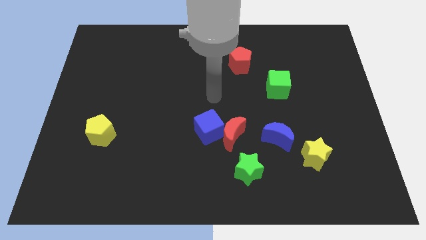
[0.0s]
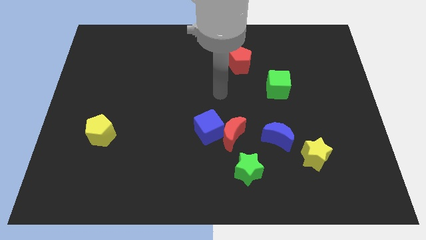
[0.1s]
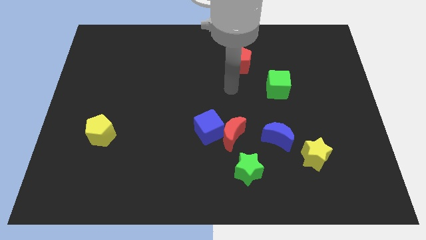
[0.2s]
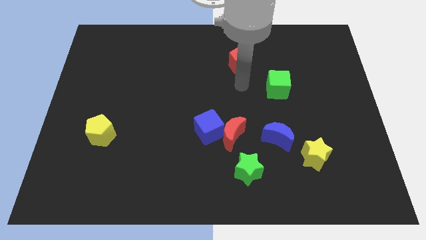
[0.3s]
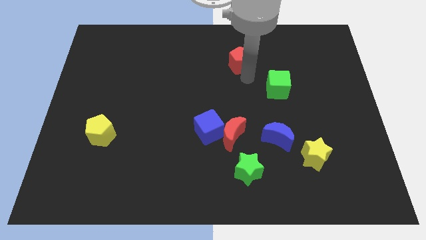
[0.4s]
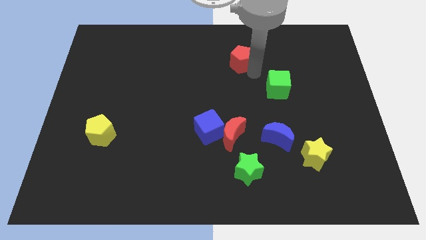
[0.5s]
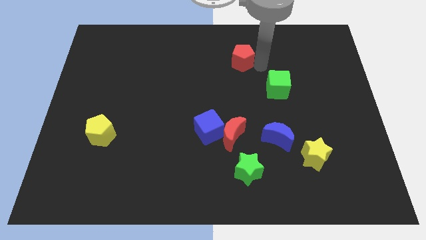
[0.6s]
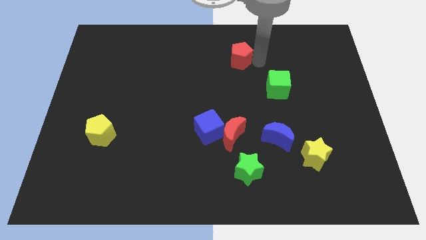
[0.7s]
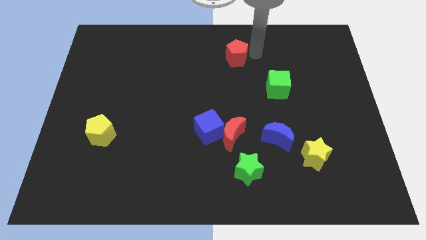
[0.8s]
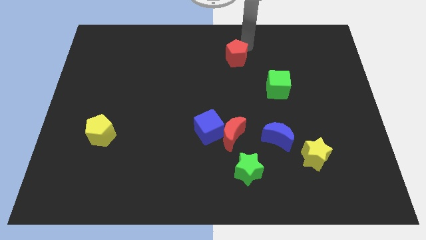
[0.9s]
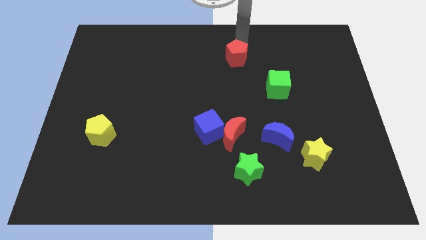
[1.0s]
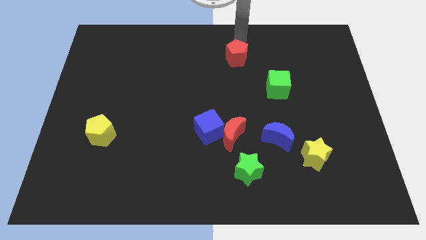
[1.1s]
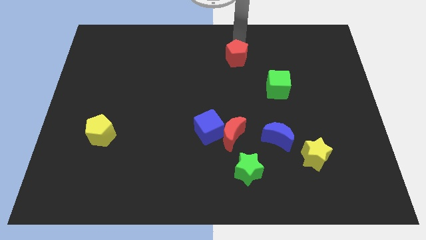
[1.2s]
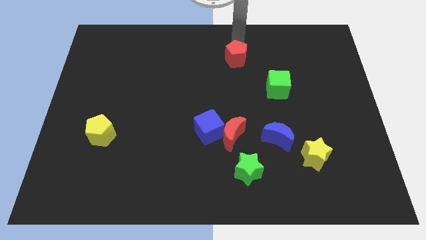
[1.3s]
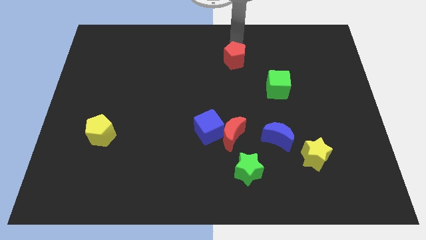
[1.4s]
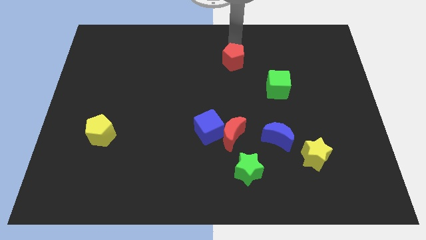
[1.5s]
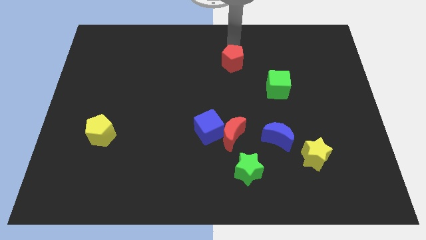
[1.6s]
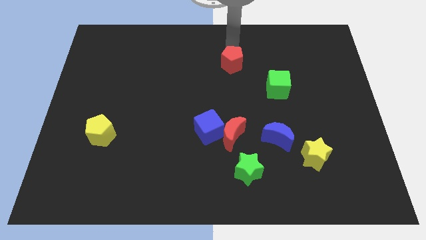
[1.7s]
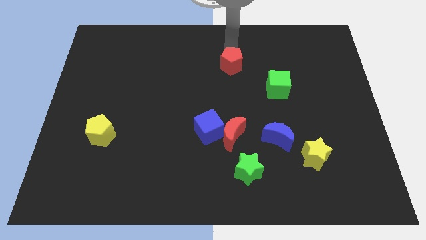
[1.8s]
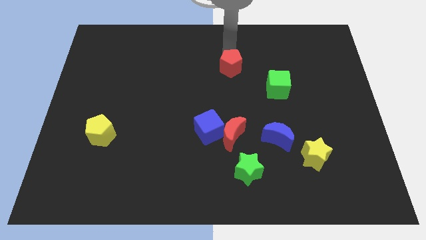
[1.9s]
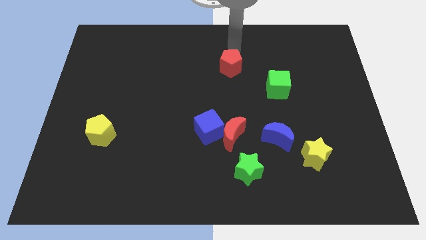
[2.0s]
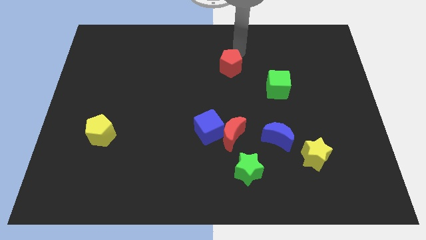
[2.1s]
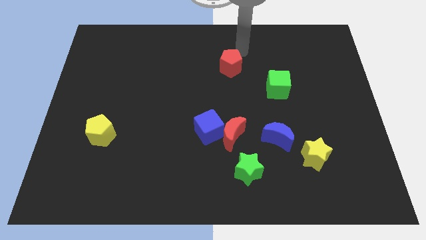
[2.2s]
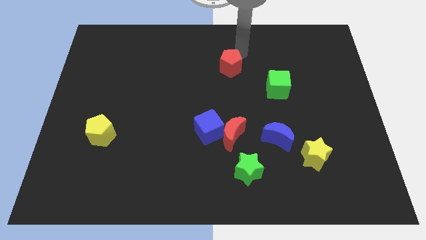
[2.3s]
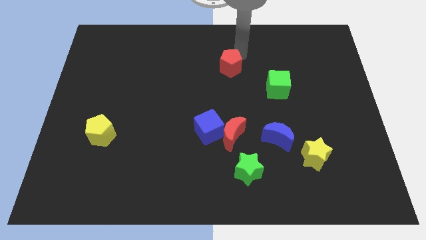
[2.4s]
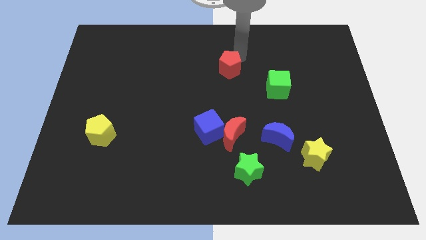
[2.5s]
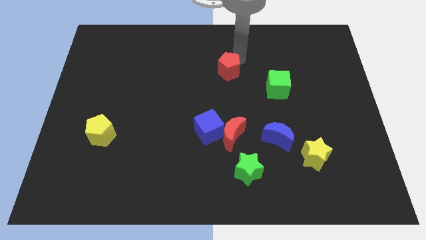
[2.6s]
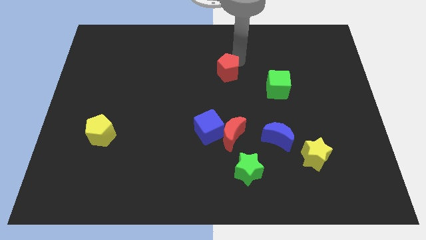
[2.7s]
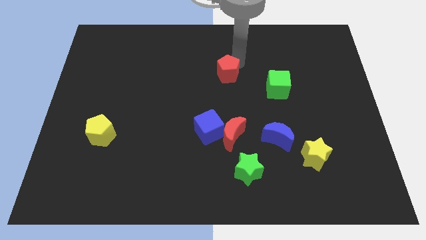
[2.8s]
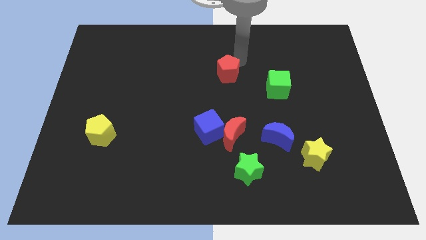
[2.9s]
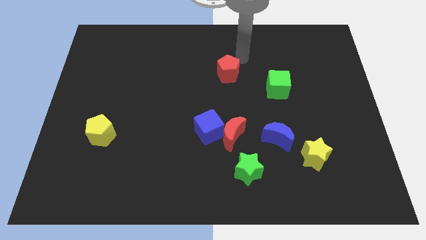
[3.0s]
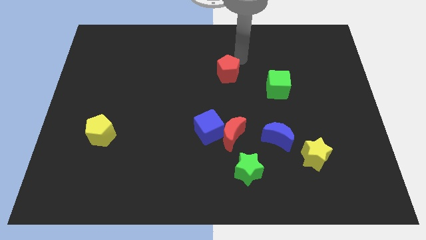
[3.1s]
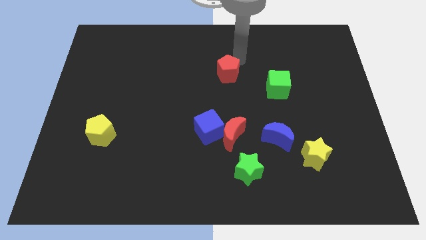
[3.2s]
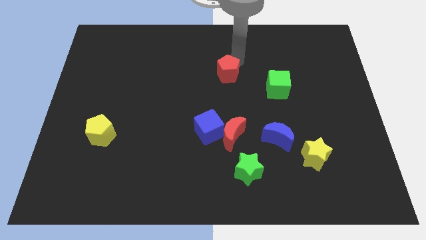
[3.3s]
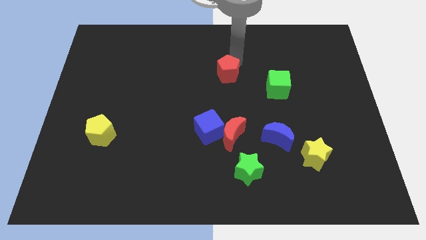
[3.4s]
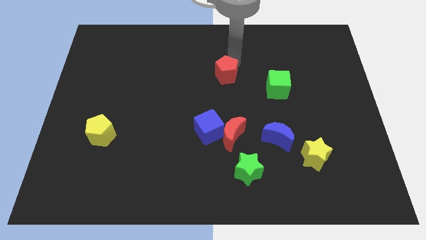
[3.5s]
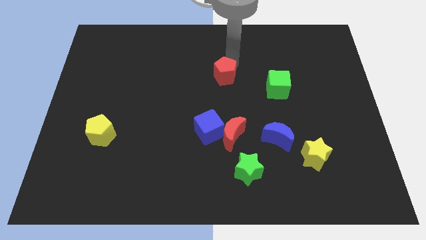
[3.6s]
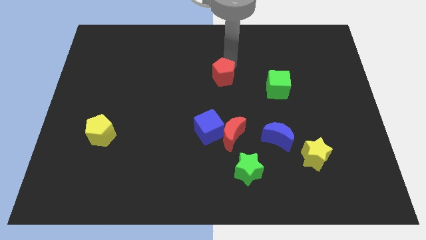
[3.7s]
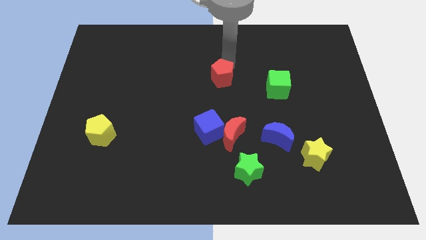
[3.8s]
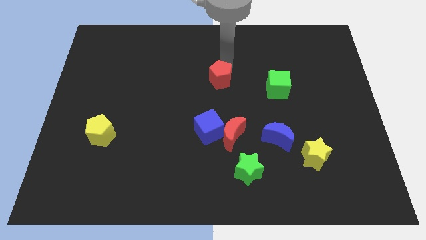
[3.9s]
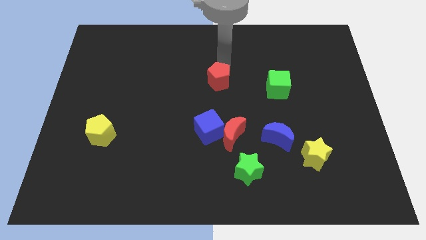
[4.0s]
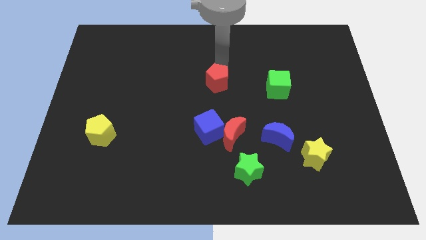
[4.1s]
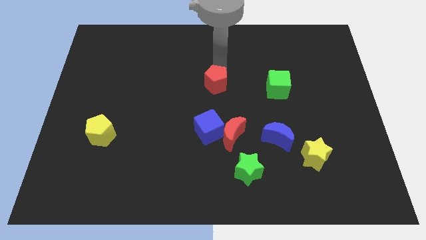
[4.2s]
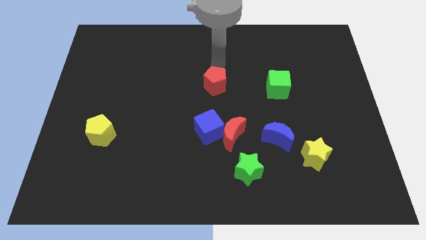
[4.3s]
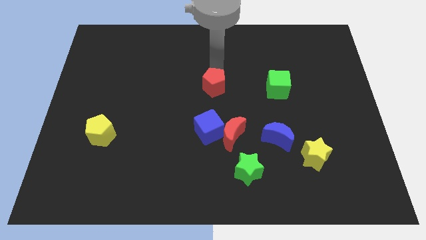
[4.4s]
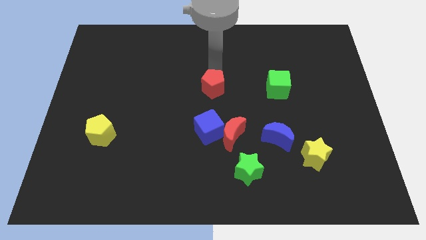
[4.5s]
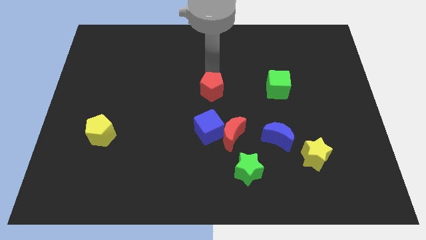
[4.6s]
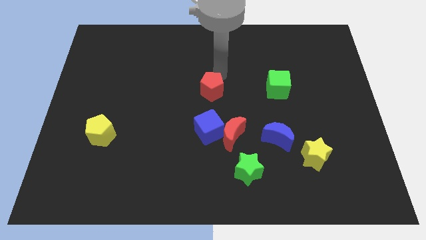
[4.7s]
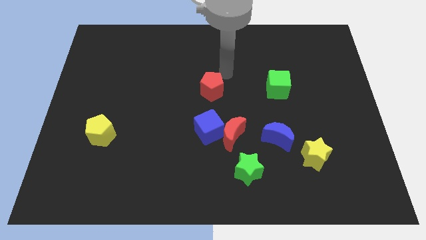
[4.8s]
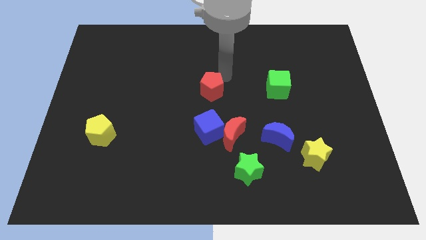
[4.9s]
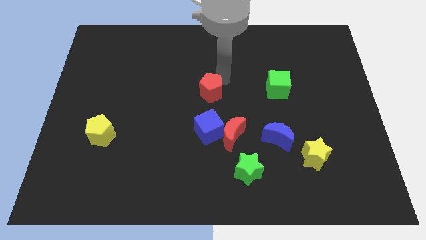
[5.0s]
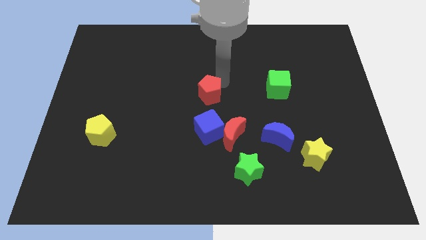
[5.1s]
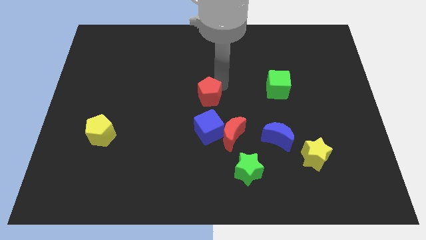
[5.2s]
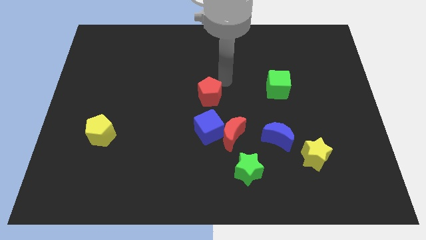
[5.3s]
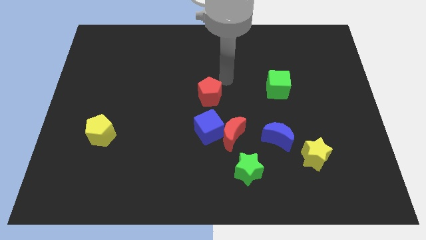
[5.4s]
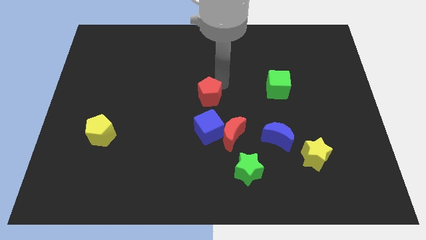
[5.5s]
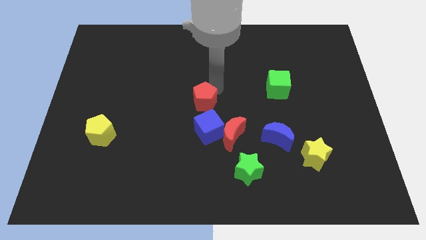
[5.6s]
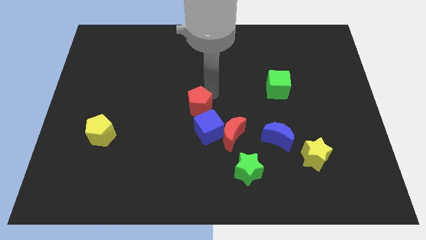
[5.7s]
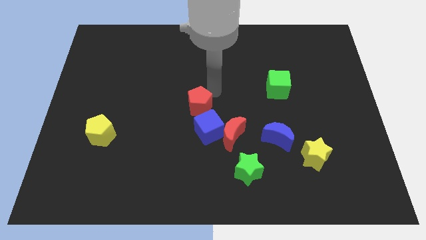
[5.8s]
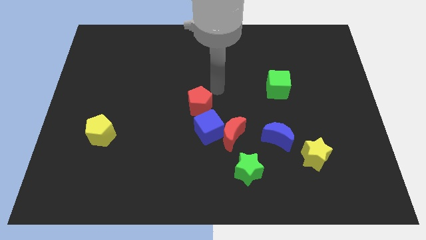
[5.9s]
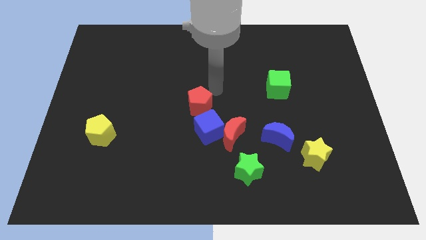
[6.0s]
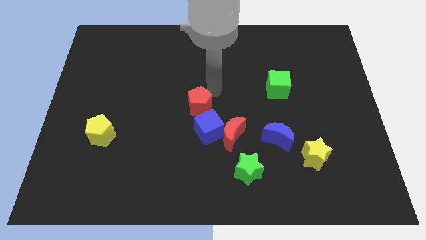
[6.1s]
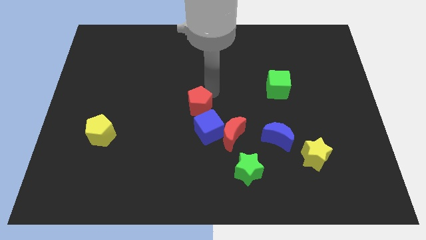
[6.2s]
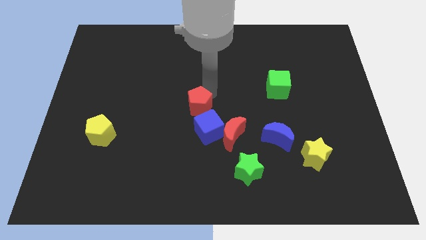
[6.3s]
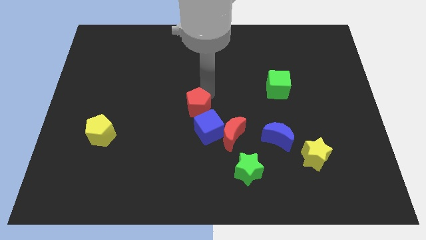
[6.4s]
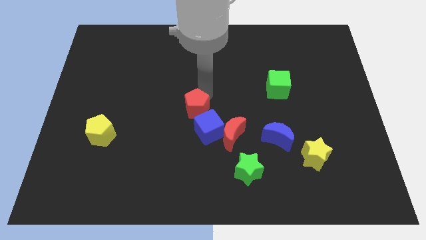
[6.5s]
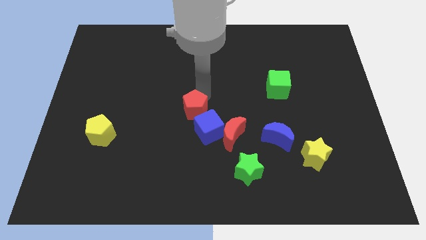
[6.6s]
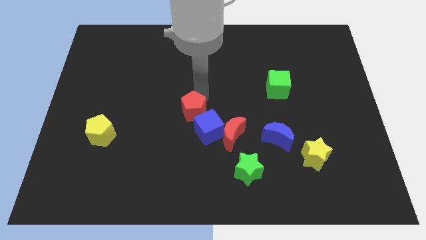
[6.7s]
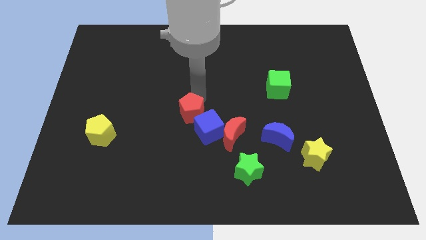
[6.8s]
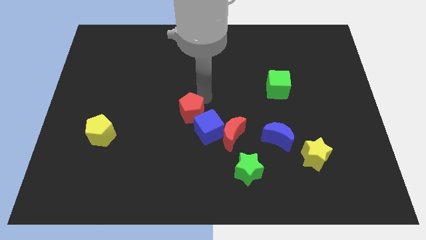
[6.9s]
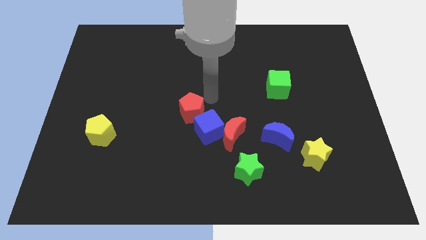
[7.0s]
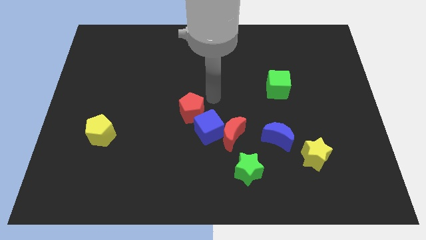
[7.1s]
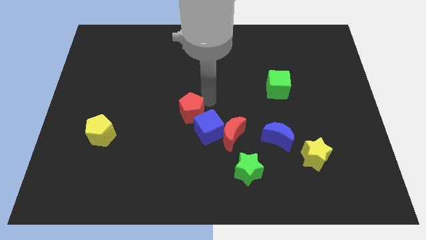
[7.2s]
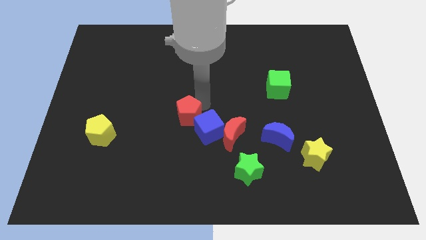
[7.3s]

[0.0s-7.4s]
move the red pentagon diagonally downwards and left

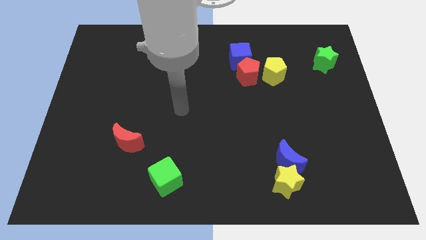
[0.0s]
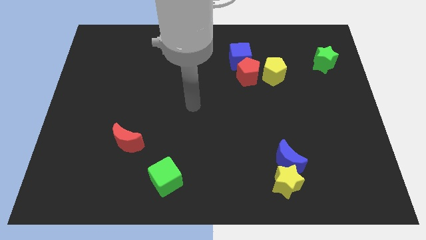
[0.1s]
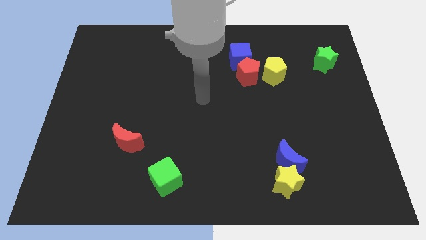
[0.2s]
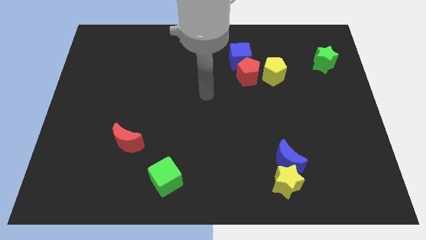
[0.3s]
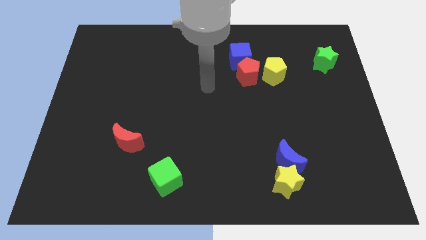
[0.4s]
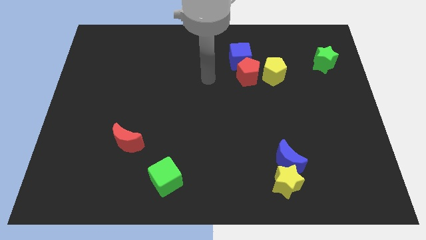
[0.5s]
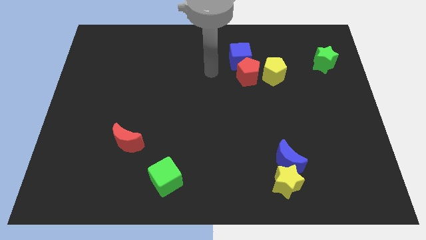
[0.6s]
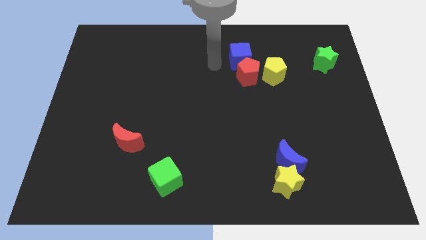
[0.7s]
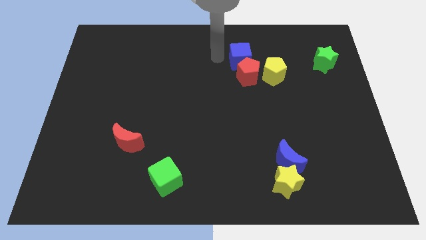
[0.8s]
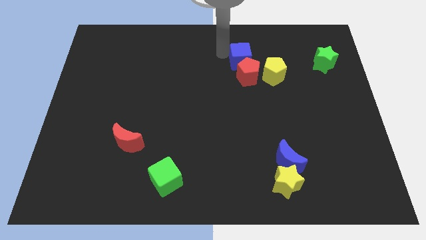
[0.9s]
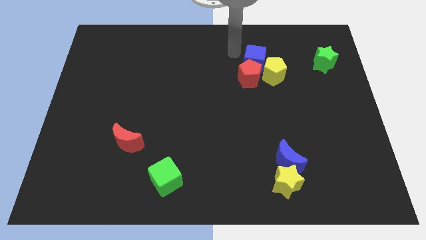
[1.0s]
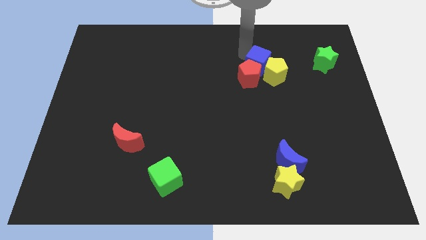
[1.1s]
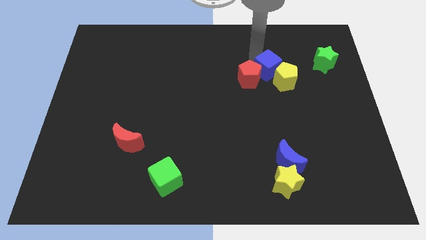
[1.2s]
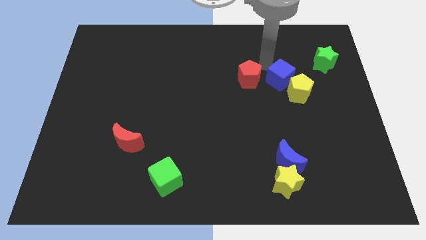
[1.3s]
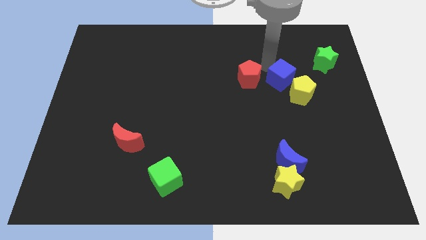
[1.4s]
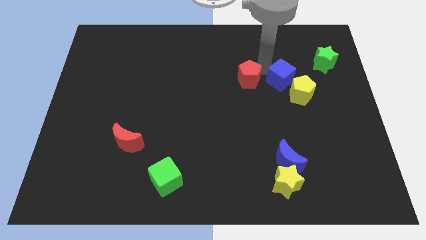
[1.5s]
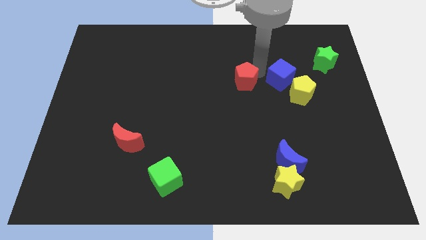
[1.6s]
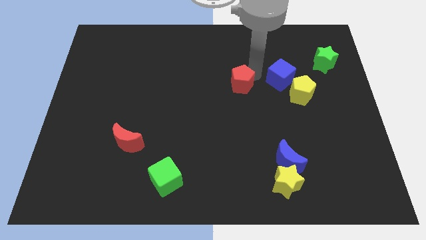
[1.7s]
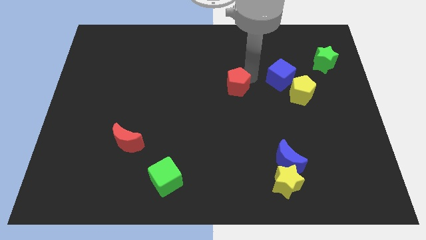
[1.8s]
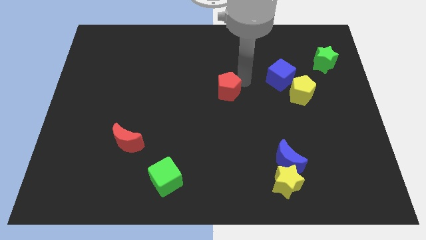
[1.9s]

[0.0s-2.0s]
slightly push the red pentagon diagonally downwards and to the left
